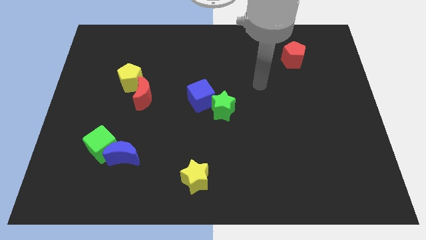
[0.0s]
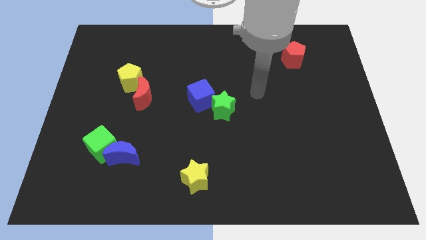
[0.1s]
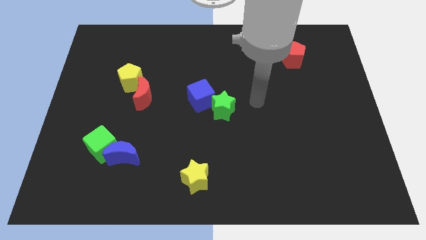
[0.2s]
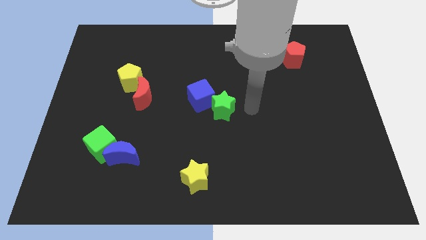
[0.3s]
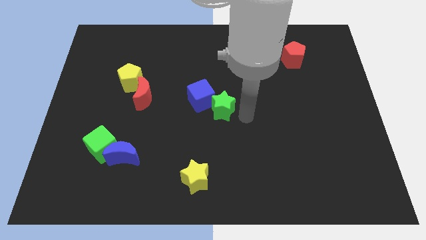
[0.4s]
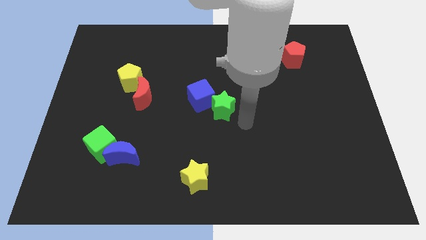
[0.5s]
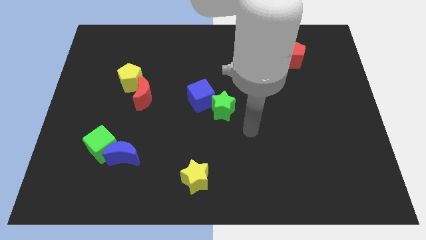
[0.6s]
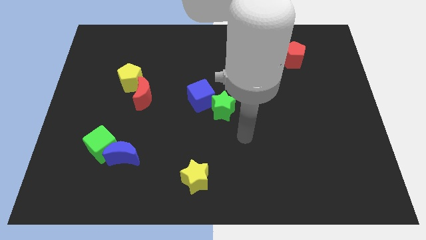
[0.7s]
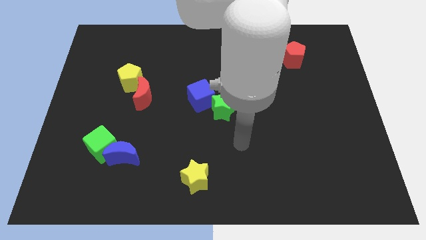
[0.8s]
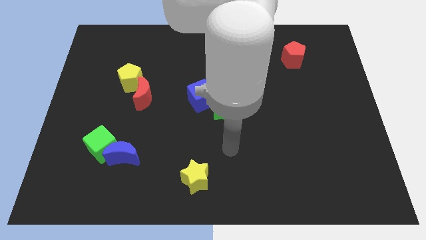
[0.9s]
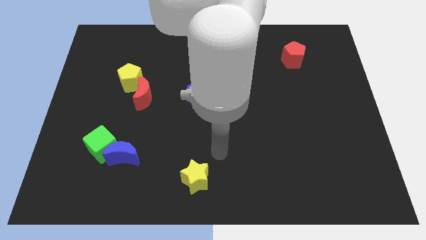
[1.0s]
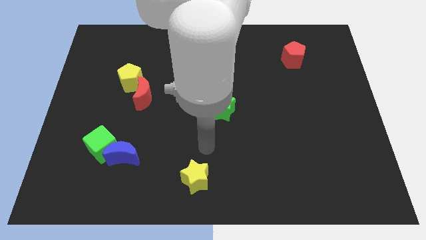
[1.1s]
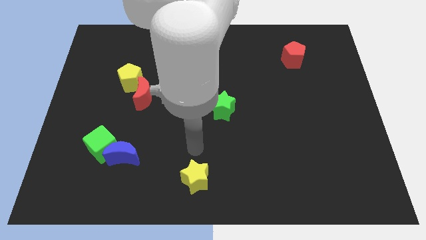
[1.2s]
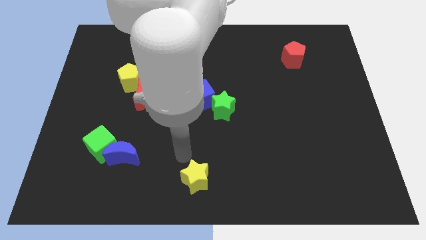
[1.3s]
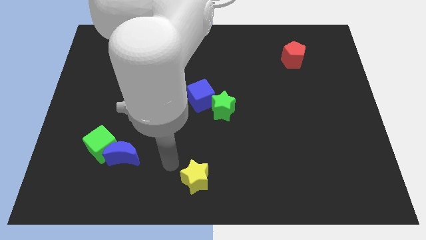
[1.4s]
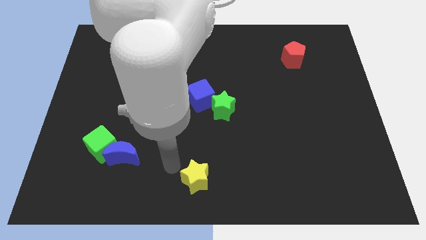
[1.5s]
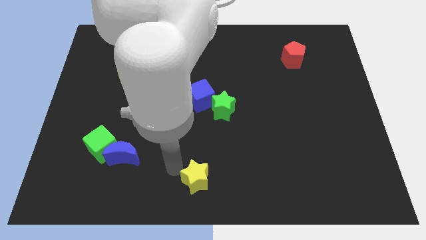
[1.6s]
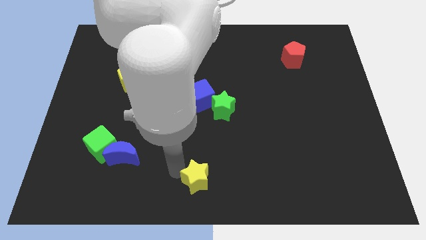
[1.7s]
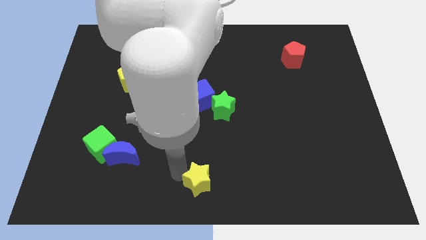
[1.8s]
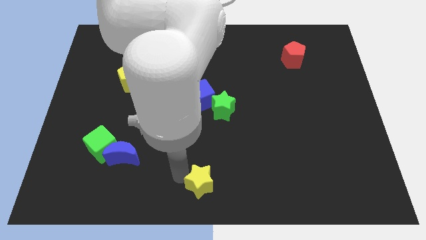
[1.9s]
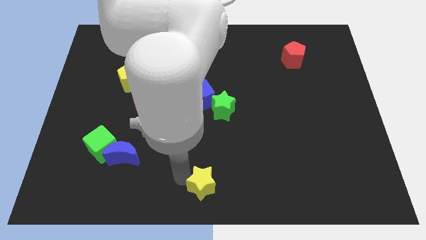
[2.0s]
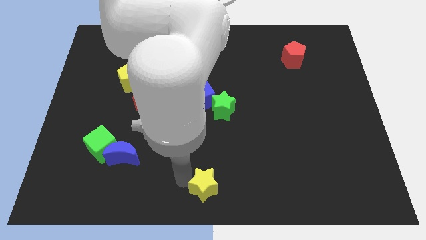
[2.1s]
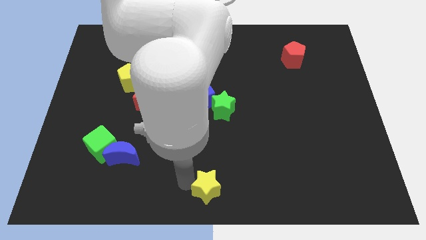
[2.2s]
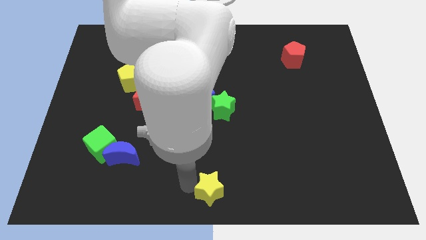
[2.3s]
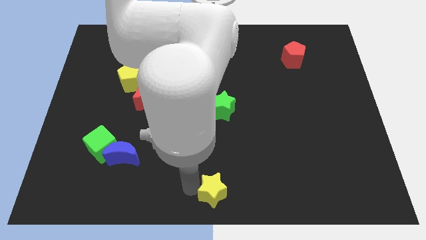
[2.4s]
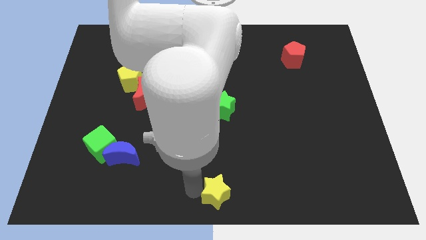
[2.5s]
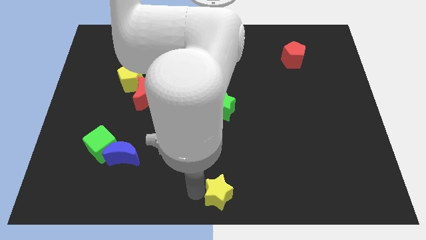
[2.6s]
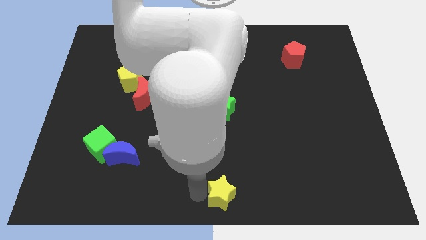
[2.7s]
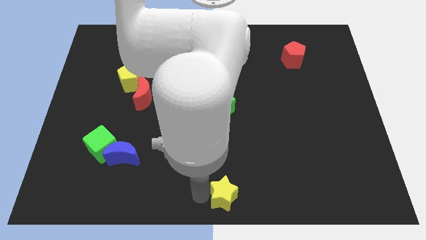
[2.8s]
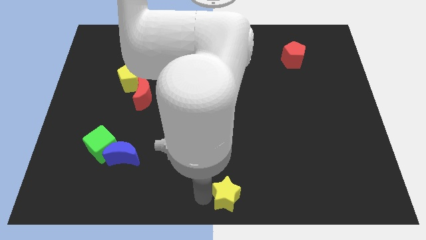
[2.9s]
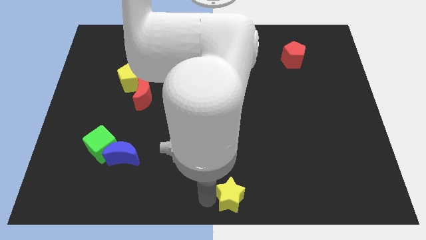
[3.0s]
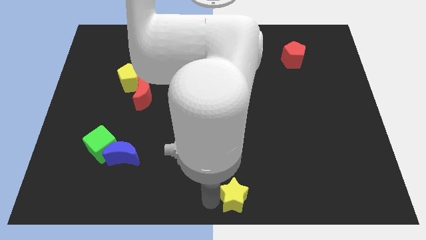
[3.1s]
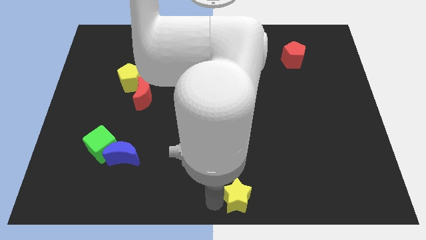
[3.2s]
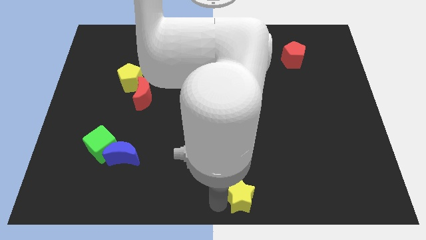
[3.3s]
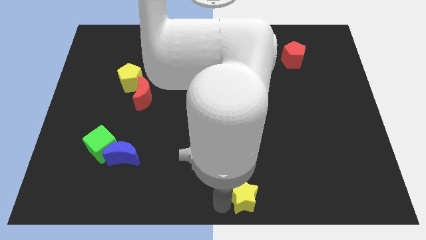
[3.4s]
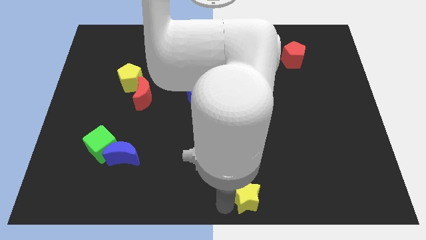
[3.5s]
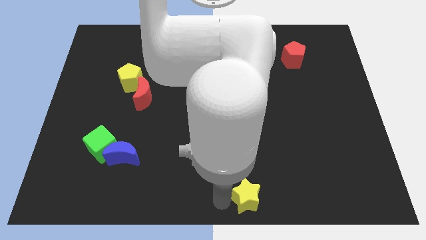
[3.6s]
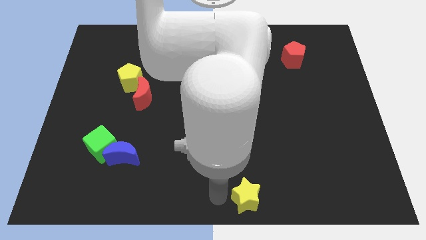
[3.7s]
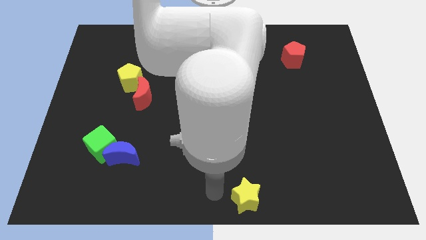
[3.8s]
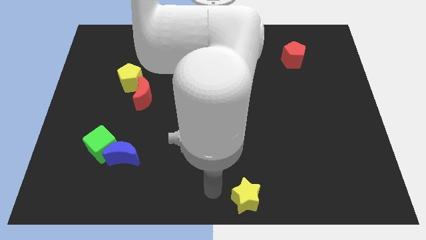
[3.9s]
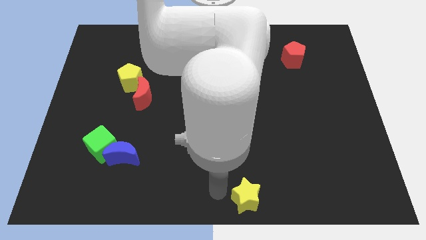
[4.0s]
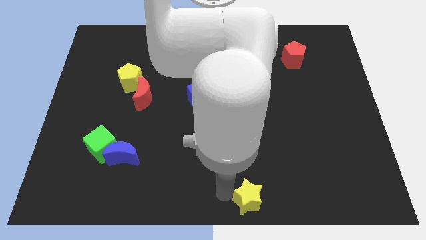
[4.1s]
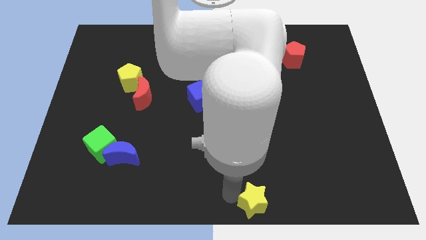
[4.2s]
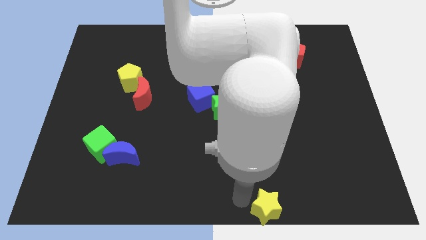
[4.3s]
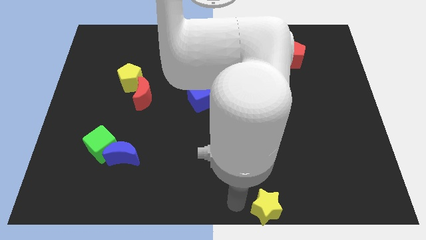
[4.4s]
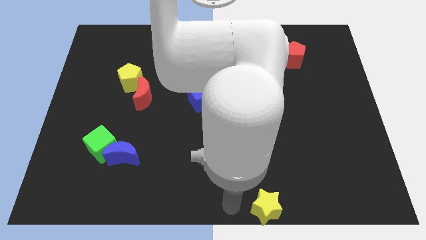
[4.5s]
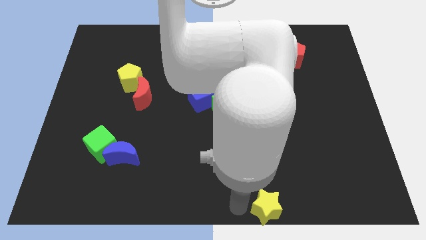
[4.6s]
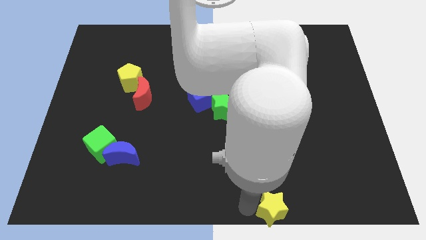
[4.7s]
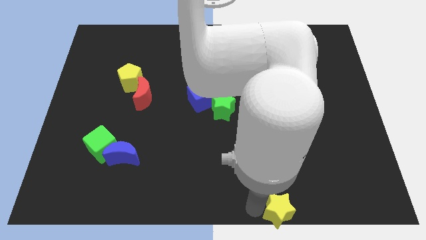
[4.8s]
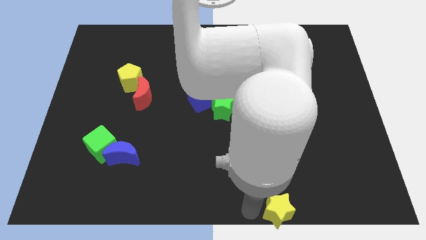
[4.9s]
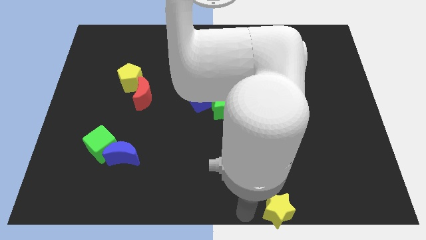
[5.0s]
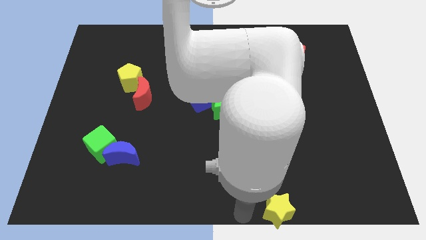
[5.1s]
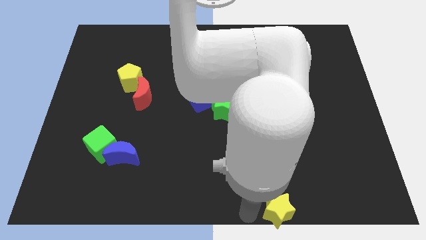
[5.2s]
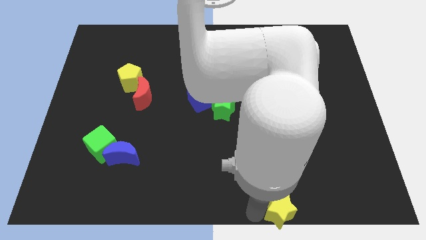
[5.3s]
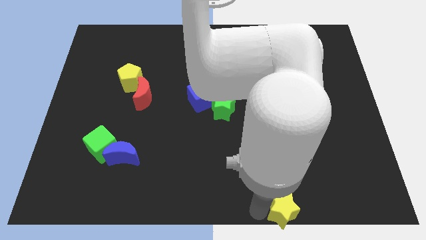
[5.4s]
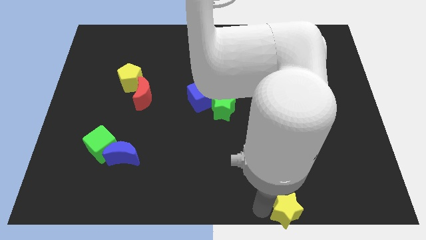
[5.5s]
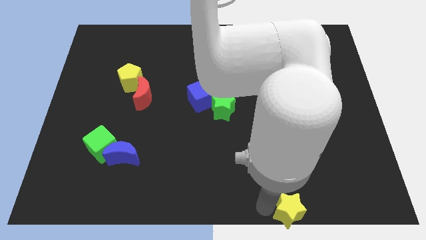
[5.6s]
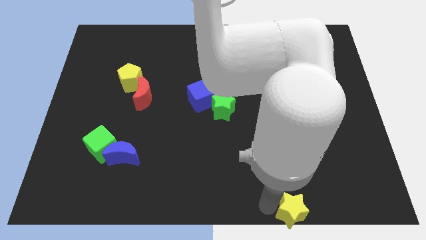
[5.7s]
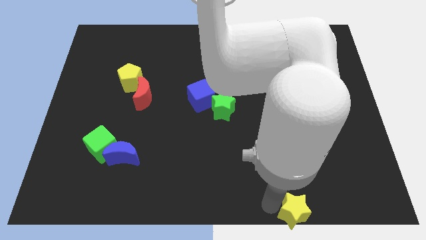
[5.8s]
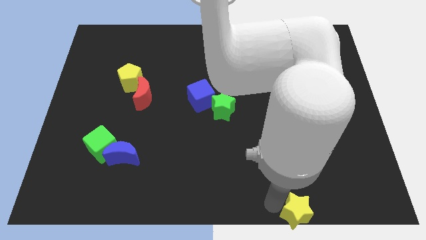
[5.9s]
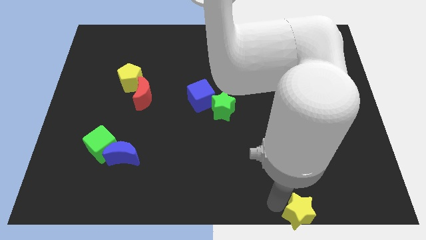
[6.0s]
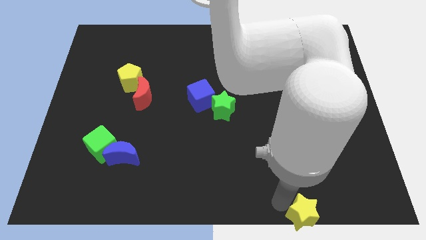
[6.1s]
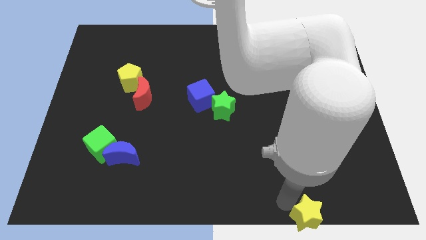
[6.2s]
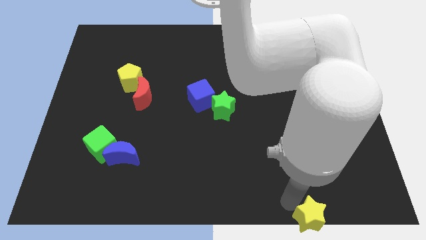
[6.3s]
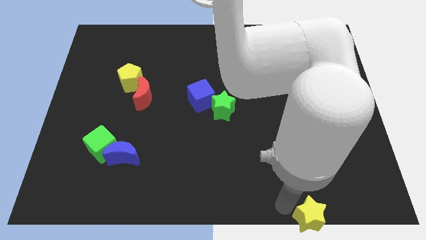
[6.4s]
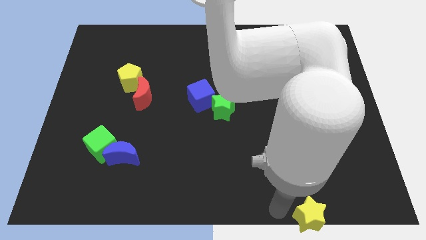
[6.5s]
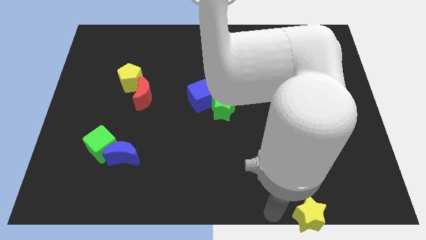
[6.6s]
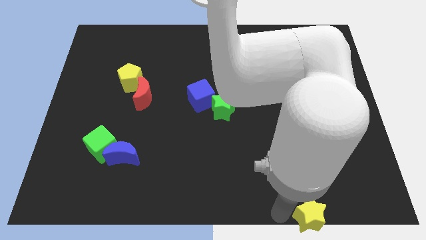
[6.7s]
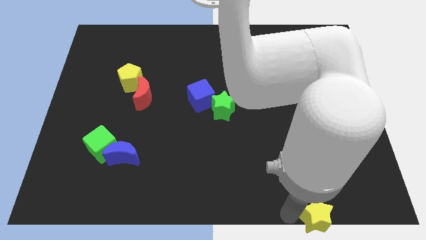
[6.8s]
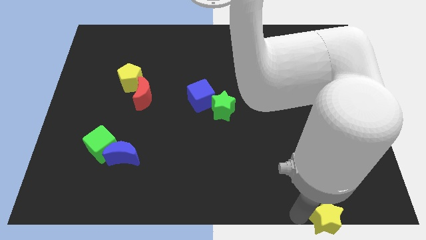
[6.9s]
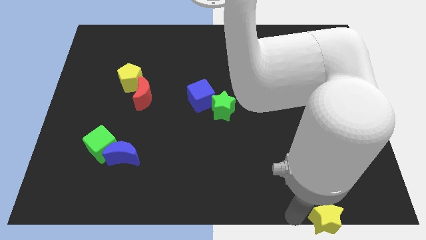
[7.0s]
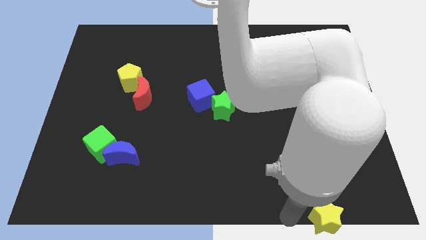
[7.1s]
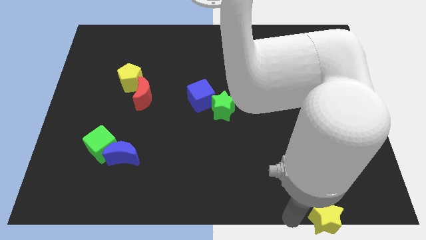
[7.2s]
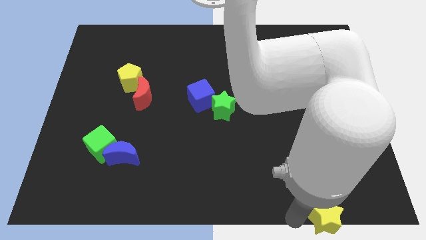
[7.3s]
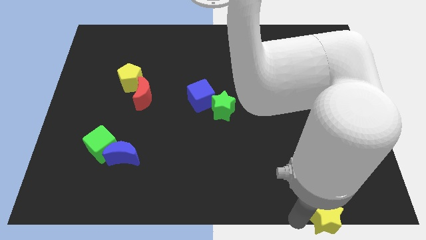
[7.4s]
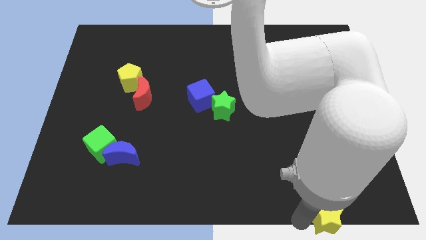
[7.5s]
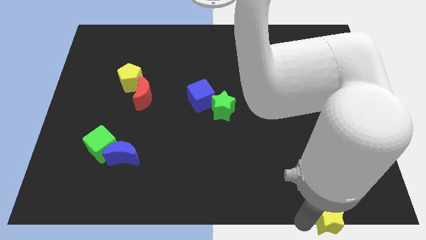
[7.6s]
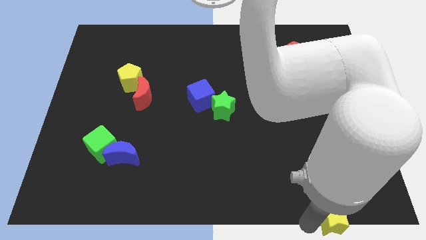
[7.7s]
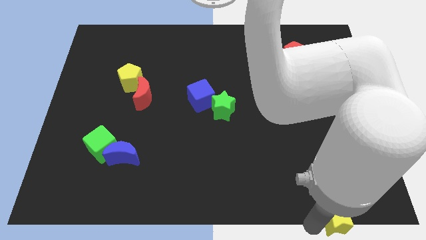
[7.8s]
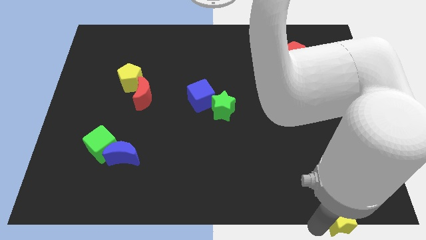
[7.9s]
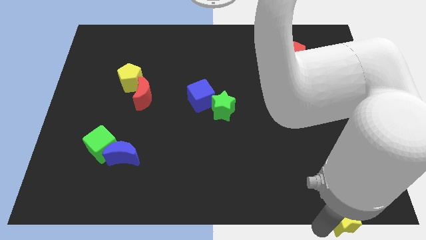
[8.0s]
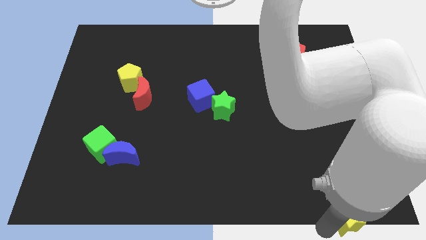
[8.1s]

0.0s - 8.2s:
put the yellow star to the bottom right
